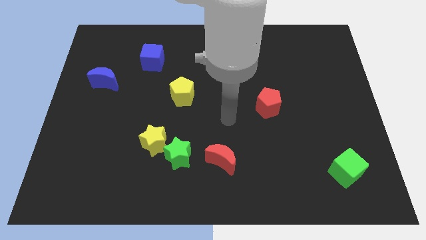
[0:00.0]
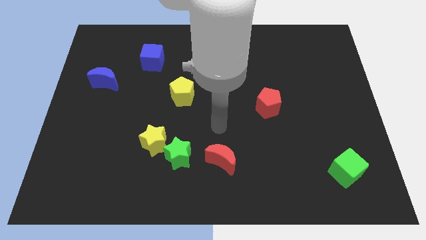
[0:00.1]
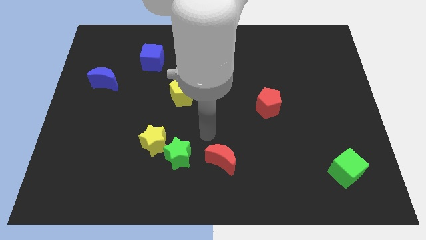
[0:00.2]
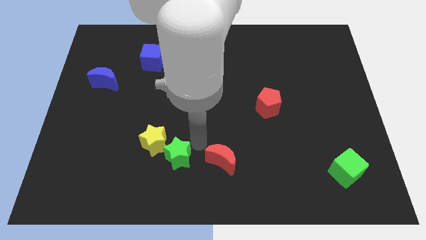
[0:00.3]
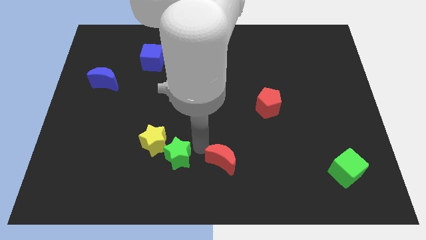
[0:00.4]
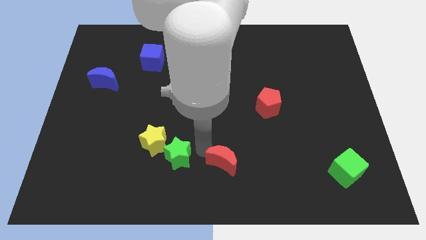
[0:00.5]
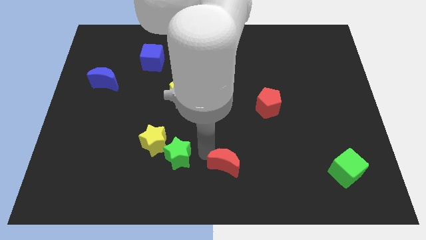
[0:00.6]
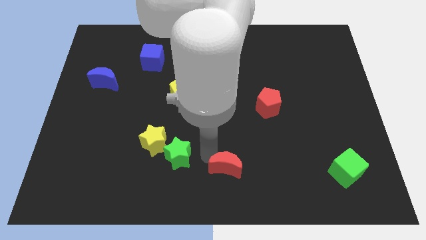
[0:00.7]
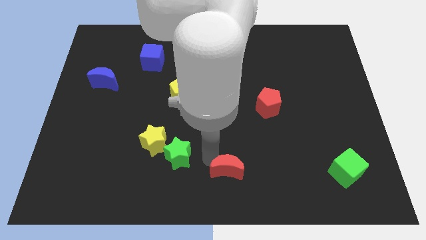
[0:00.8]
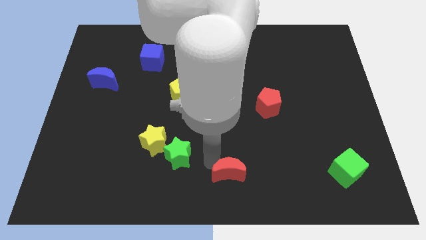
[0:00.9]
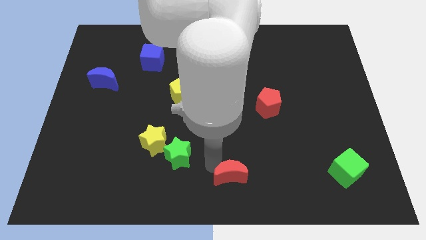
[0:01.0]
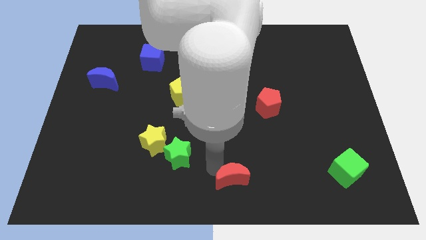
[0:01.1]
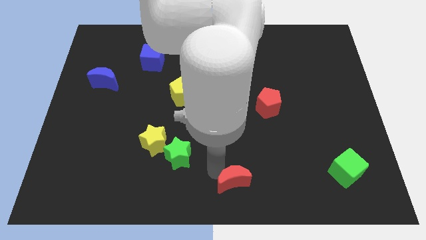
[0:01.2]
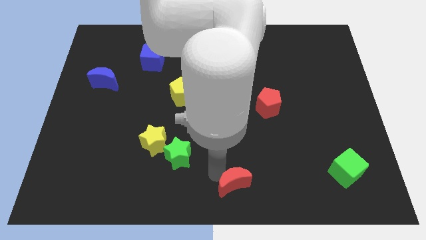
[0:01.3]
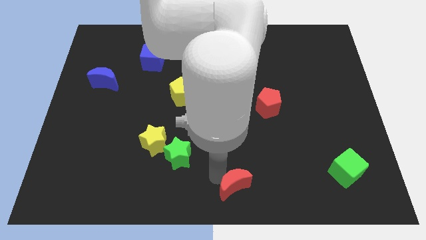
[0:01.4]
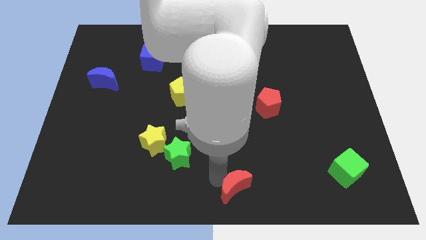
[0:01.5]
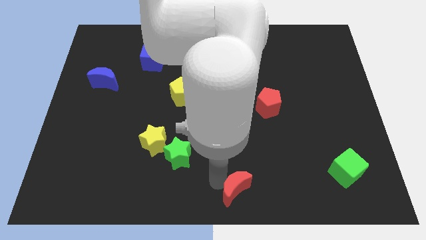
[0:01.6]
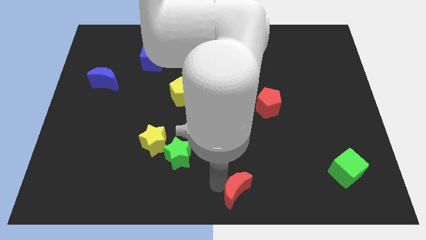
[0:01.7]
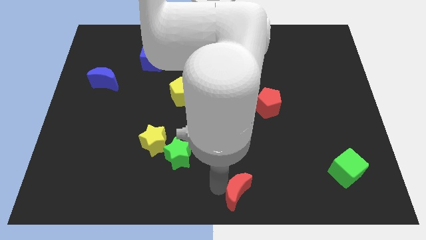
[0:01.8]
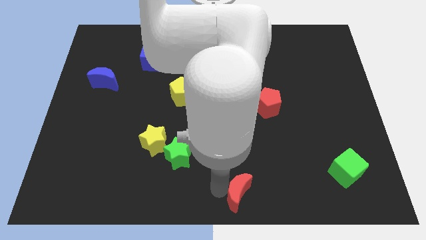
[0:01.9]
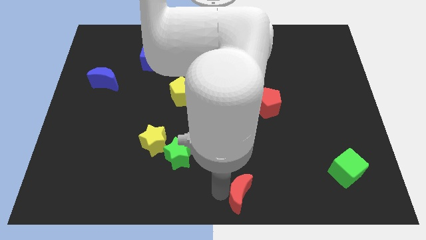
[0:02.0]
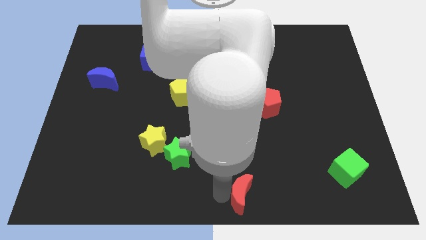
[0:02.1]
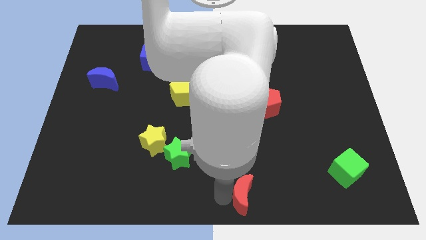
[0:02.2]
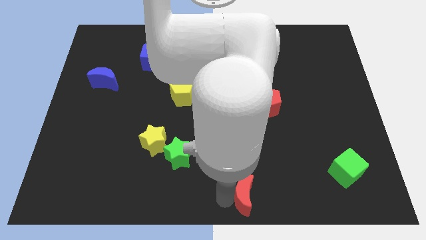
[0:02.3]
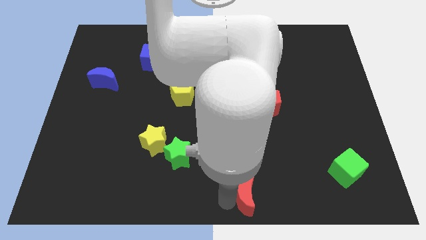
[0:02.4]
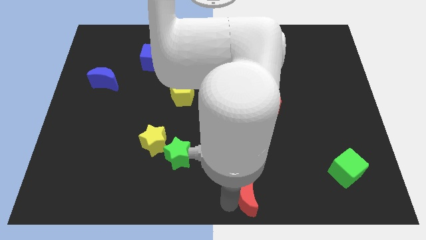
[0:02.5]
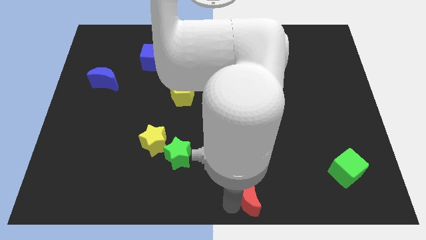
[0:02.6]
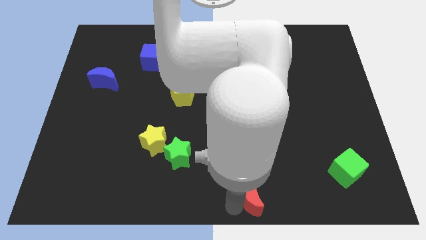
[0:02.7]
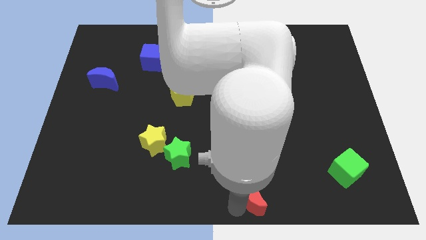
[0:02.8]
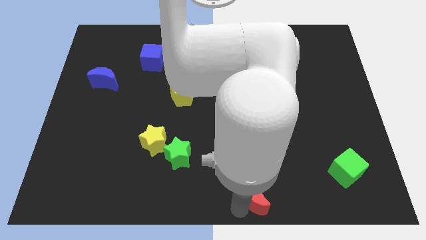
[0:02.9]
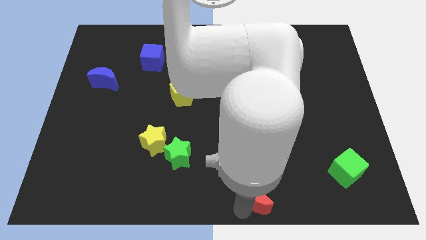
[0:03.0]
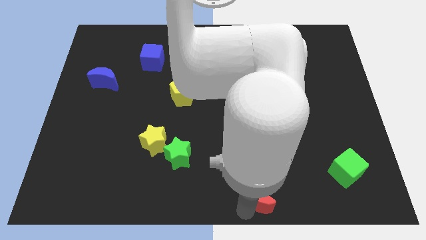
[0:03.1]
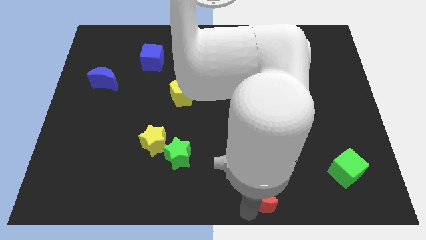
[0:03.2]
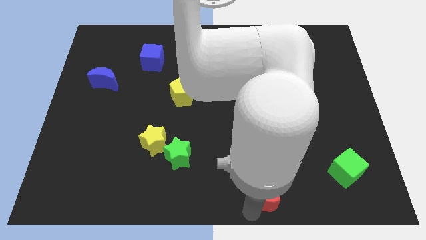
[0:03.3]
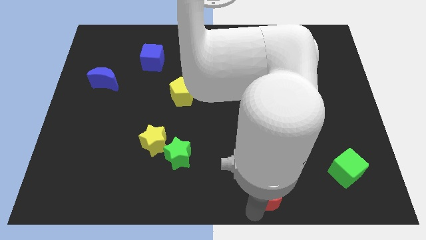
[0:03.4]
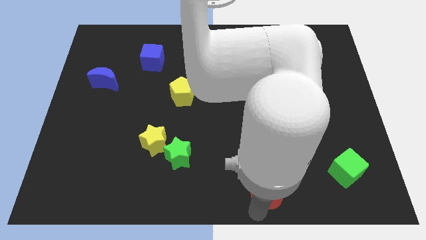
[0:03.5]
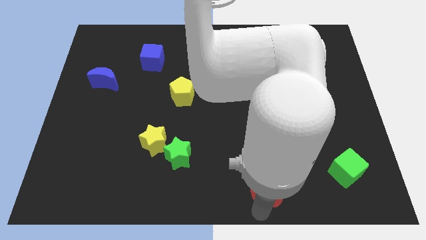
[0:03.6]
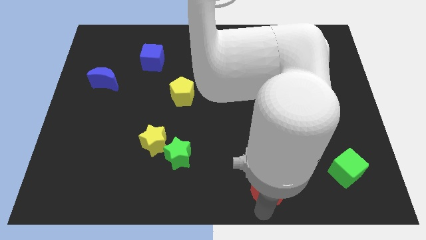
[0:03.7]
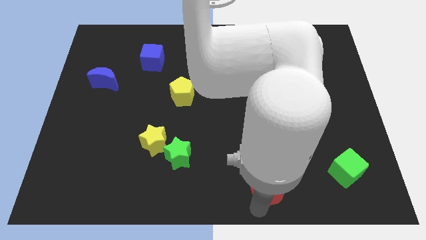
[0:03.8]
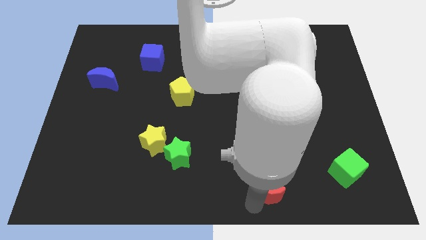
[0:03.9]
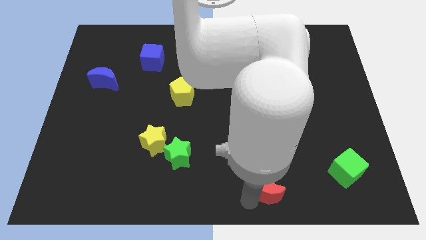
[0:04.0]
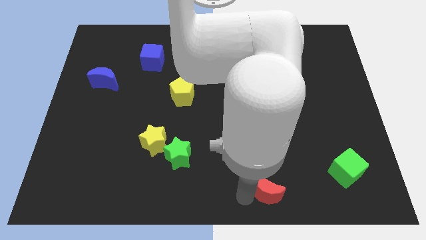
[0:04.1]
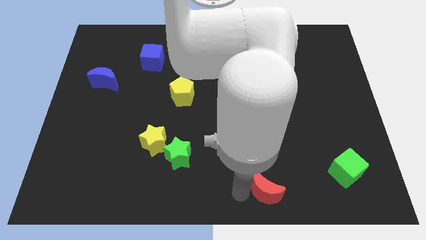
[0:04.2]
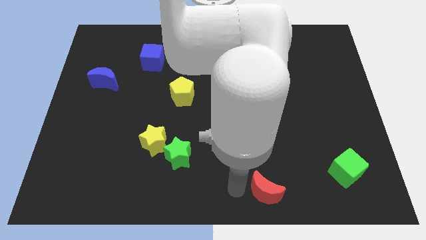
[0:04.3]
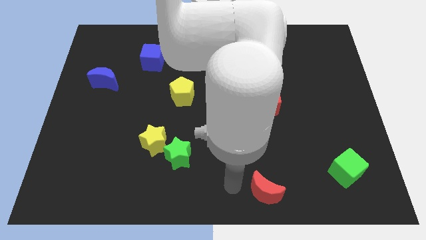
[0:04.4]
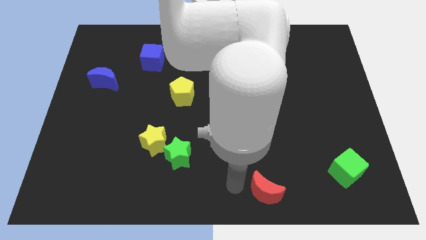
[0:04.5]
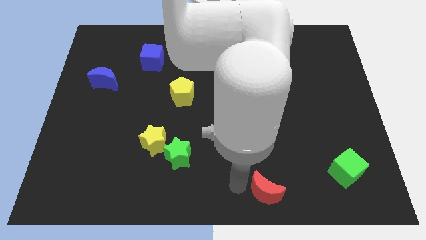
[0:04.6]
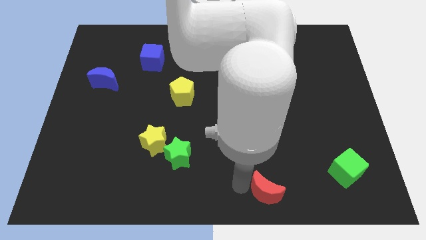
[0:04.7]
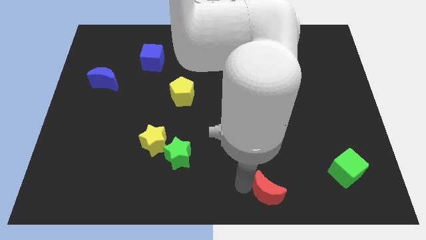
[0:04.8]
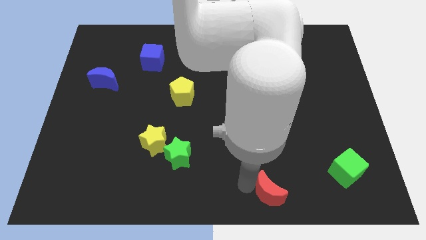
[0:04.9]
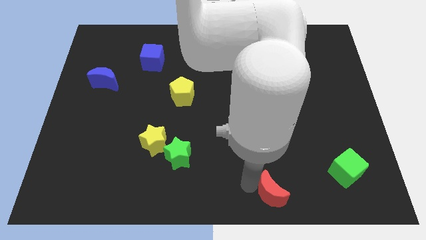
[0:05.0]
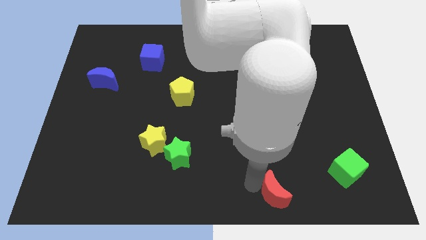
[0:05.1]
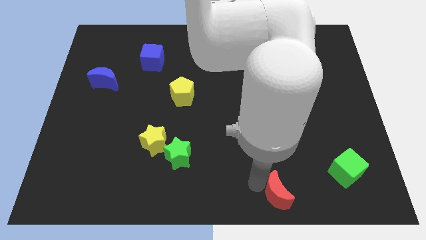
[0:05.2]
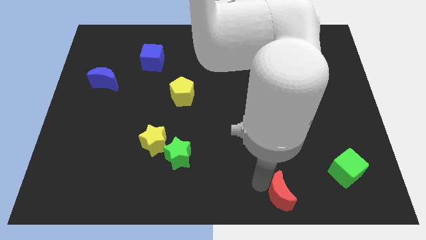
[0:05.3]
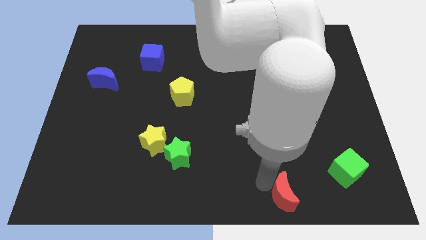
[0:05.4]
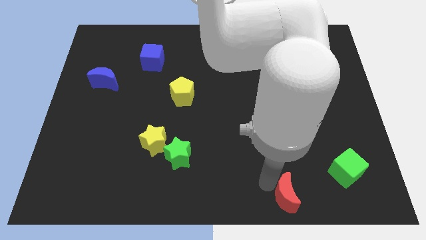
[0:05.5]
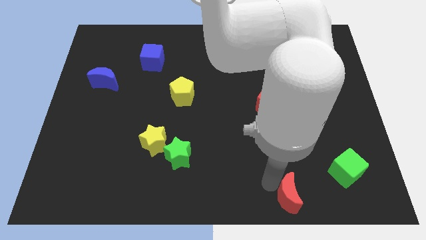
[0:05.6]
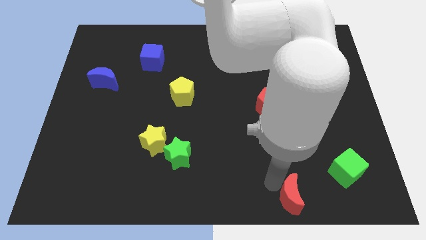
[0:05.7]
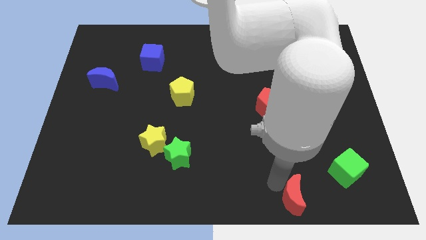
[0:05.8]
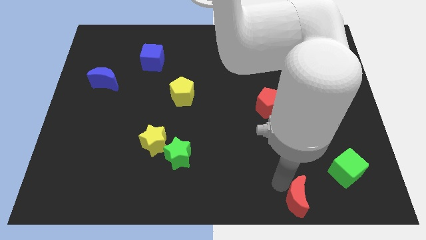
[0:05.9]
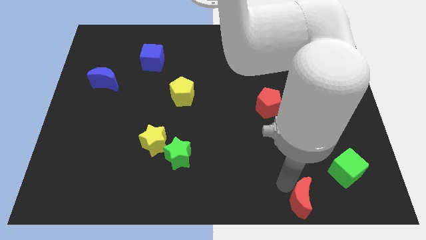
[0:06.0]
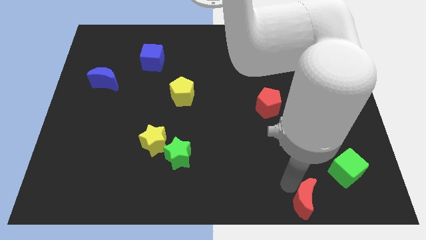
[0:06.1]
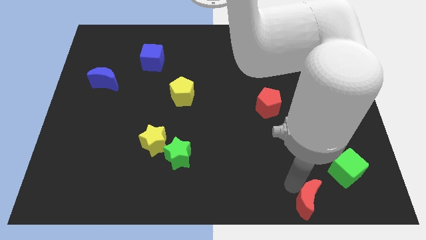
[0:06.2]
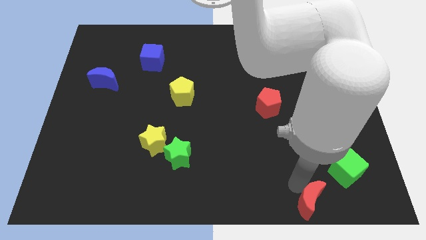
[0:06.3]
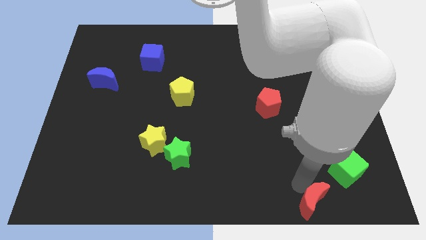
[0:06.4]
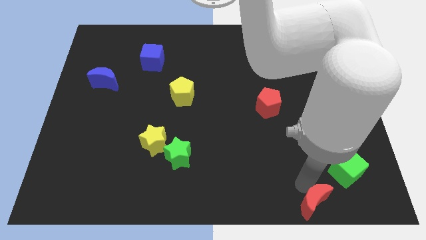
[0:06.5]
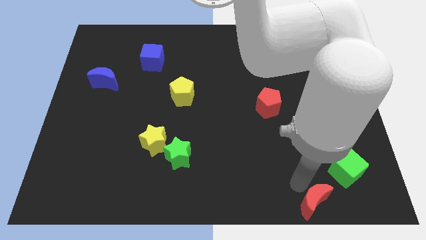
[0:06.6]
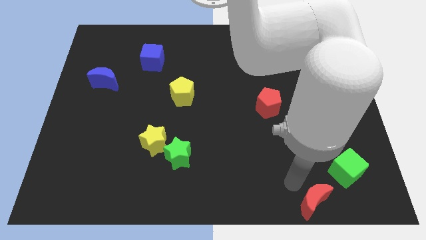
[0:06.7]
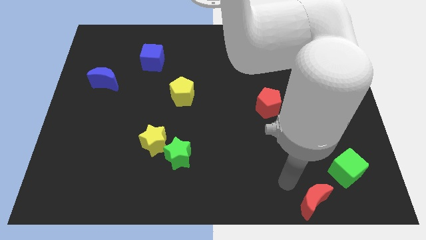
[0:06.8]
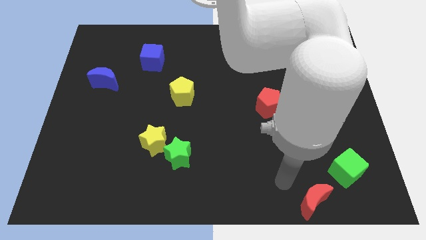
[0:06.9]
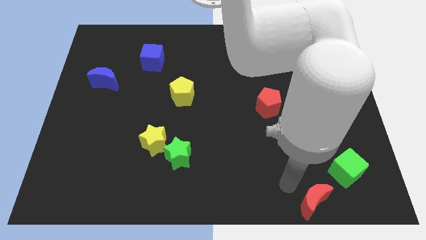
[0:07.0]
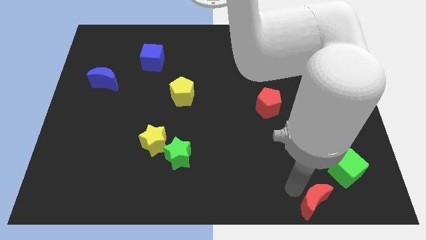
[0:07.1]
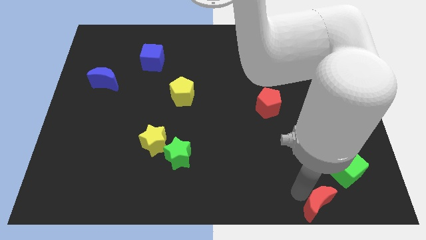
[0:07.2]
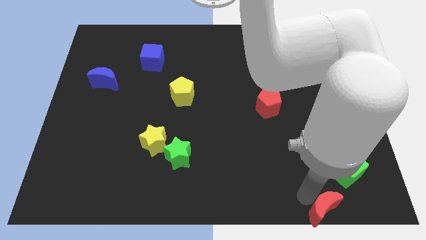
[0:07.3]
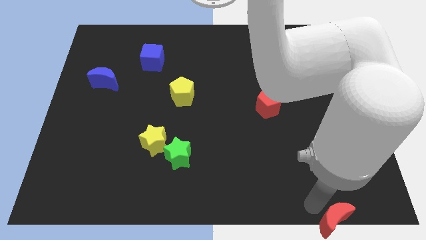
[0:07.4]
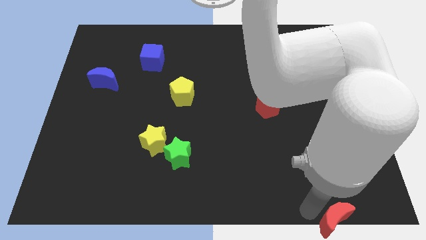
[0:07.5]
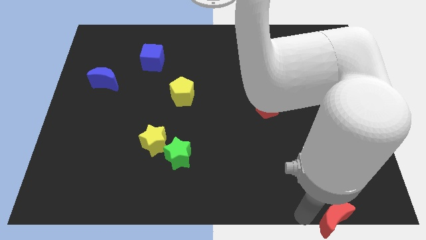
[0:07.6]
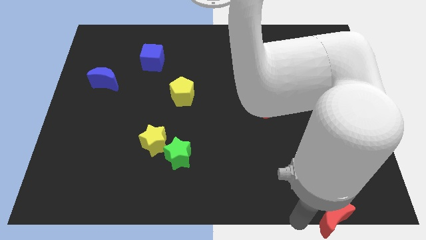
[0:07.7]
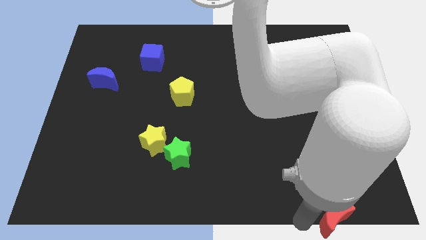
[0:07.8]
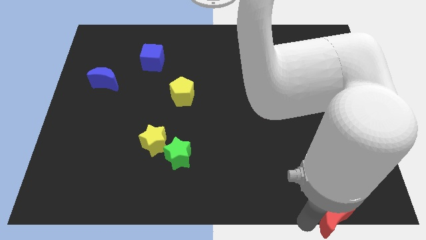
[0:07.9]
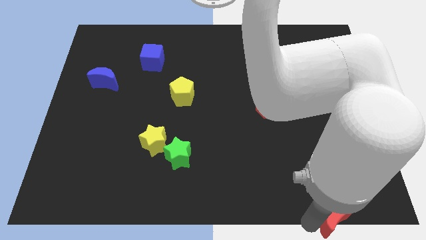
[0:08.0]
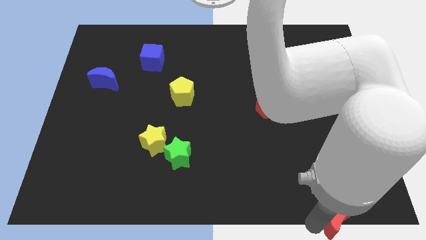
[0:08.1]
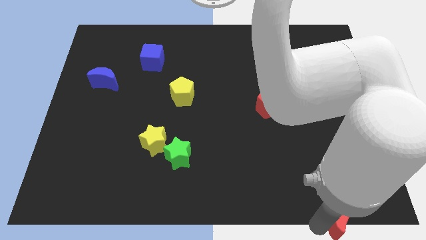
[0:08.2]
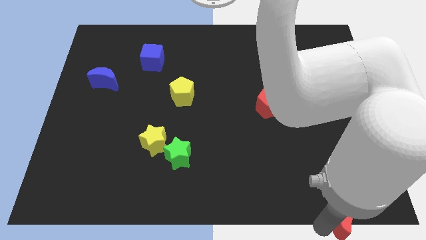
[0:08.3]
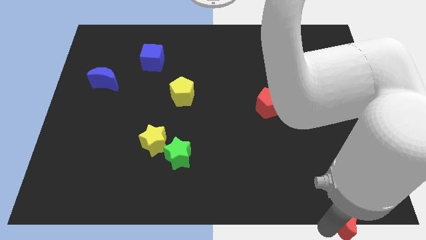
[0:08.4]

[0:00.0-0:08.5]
move the red moon to the bottom right
